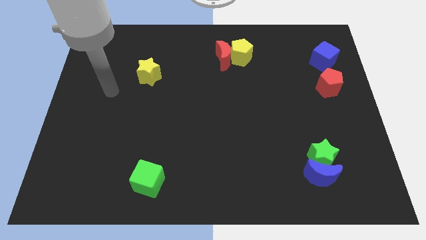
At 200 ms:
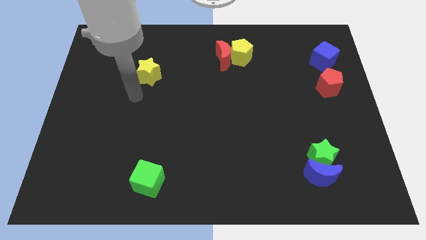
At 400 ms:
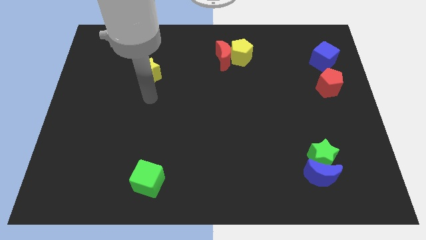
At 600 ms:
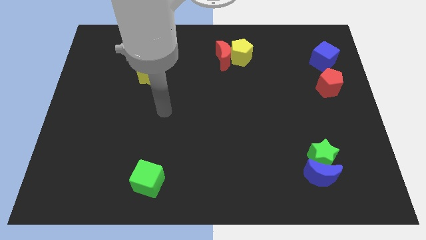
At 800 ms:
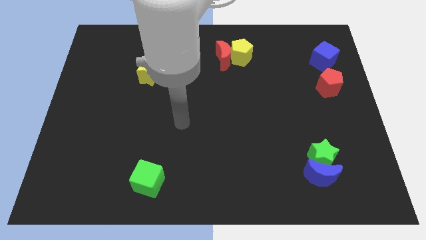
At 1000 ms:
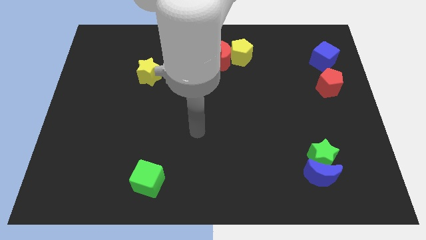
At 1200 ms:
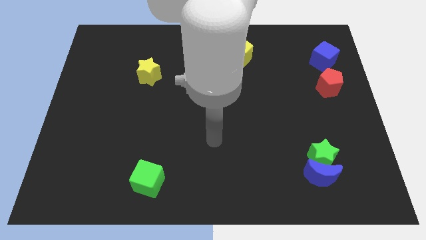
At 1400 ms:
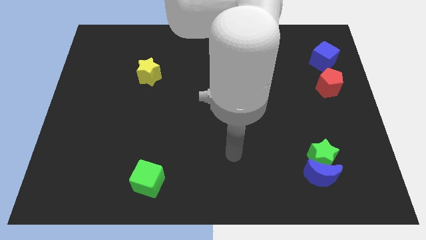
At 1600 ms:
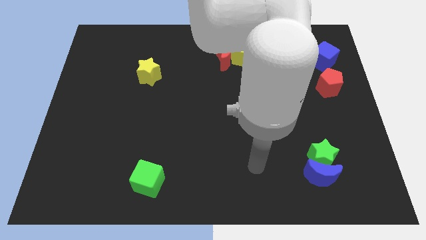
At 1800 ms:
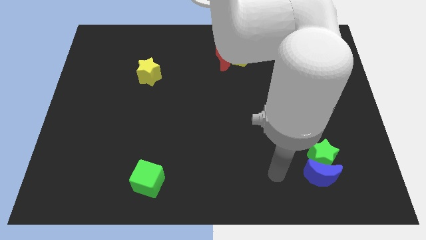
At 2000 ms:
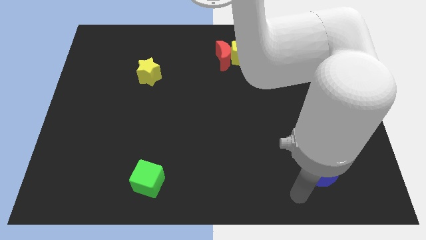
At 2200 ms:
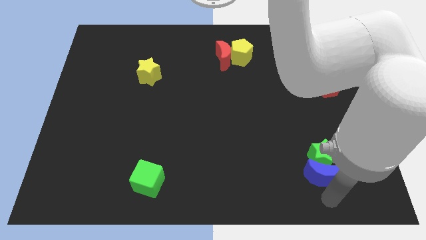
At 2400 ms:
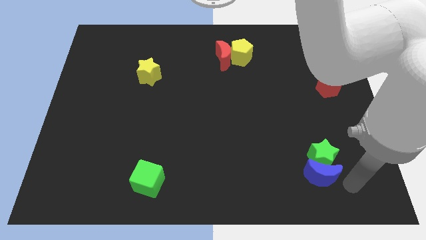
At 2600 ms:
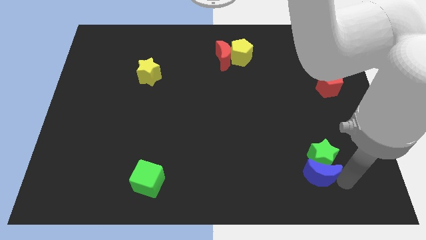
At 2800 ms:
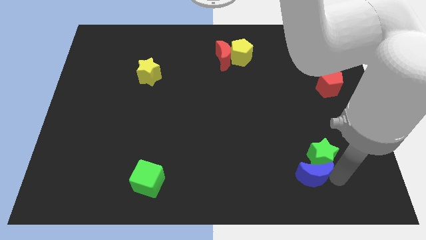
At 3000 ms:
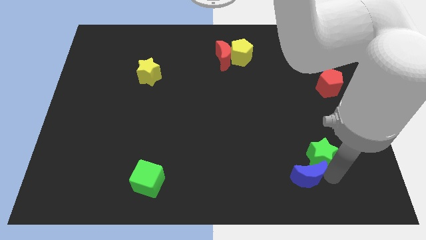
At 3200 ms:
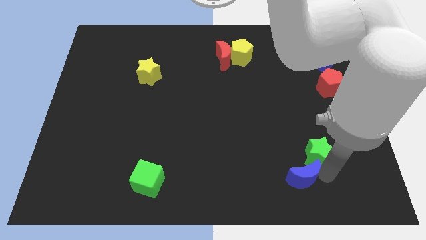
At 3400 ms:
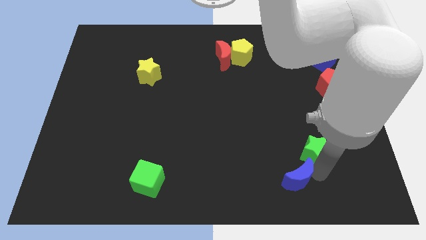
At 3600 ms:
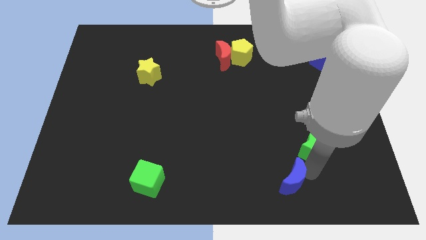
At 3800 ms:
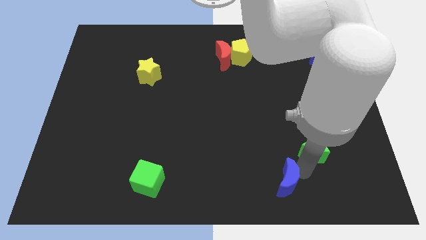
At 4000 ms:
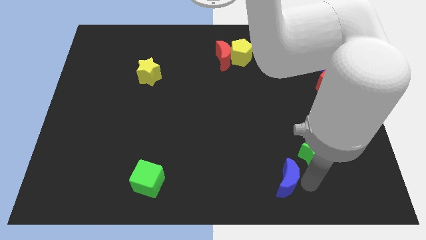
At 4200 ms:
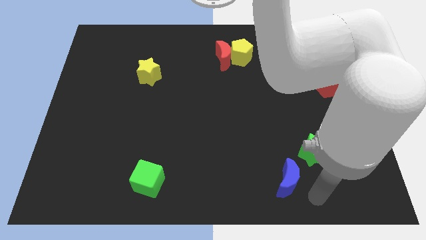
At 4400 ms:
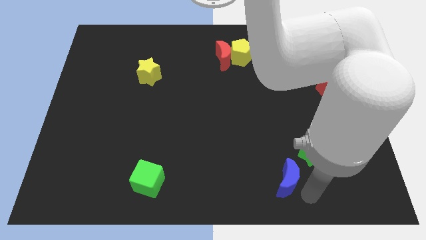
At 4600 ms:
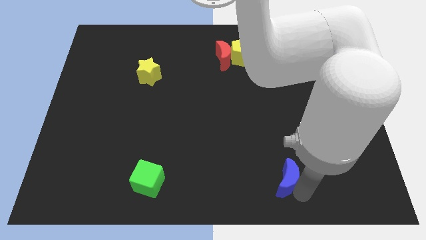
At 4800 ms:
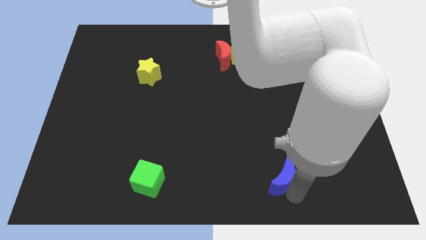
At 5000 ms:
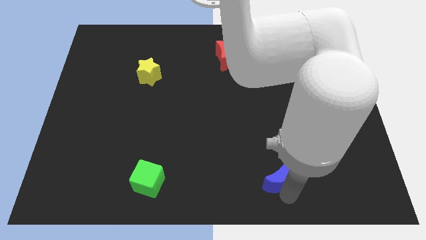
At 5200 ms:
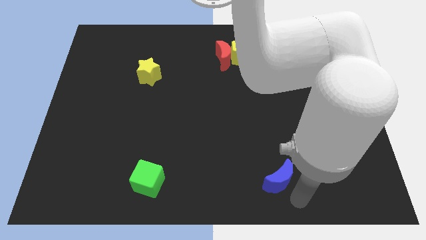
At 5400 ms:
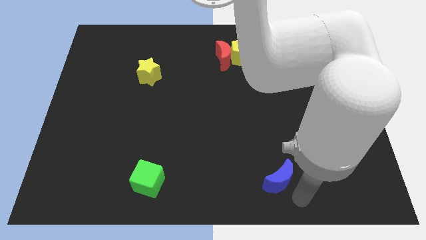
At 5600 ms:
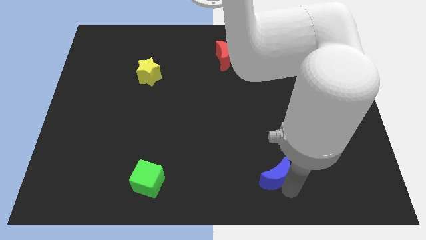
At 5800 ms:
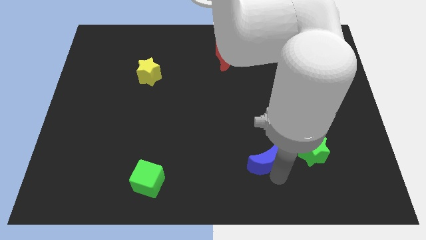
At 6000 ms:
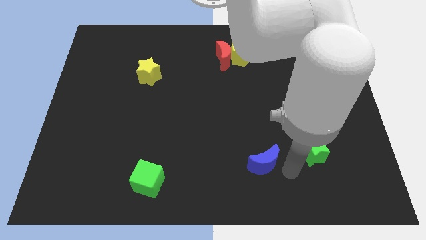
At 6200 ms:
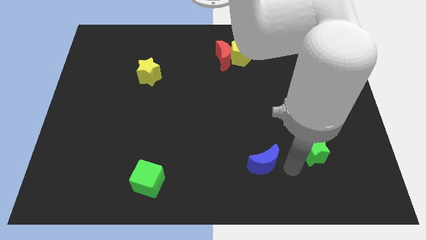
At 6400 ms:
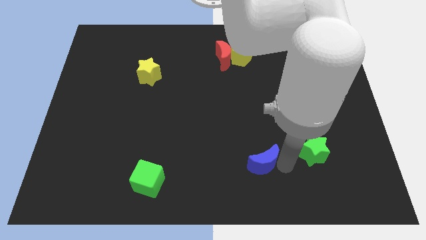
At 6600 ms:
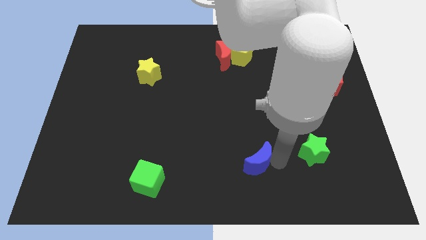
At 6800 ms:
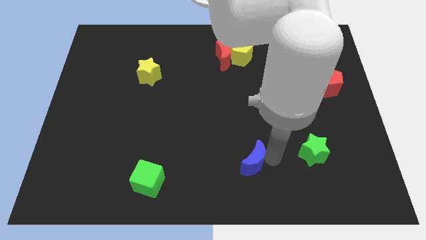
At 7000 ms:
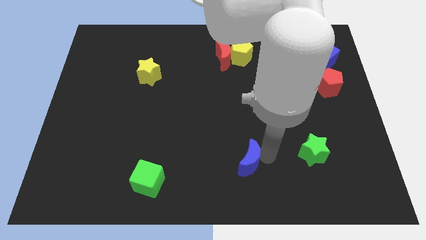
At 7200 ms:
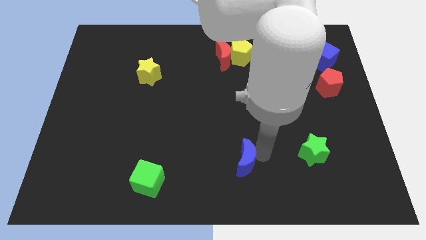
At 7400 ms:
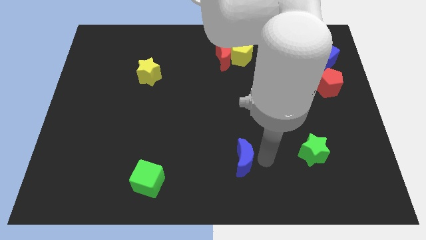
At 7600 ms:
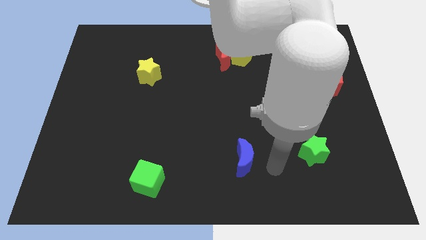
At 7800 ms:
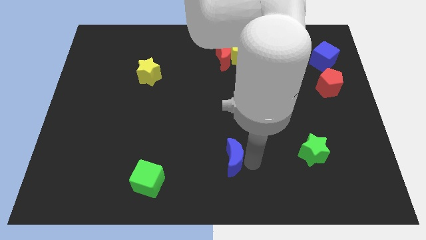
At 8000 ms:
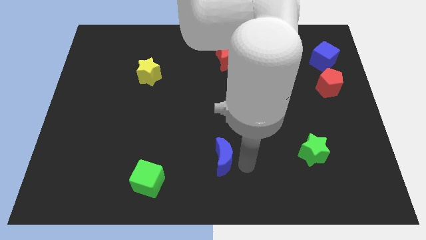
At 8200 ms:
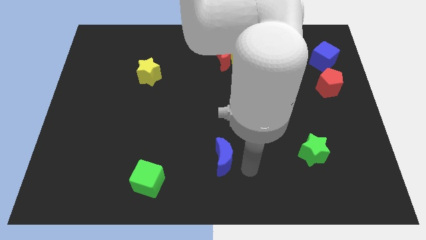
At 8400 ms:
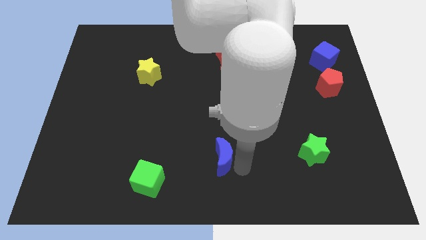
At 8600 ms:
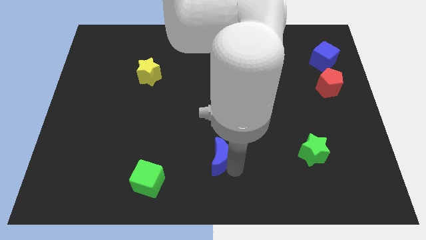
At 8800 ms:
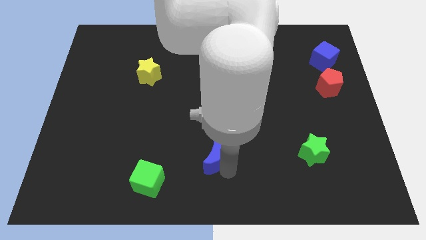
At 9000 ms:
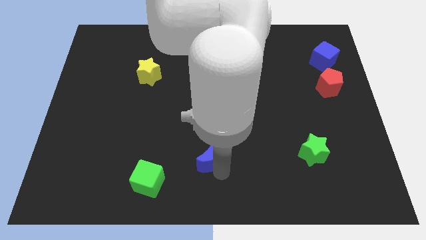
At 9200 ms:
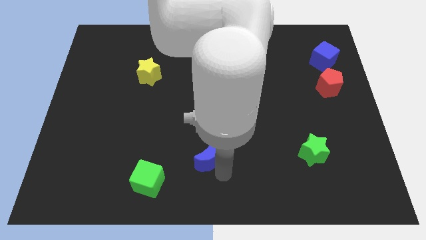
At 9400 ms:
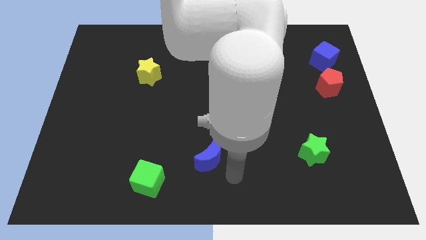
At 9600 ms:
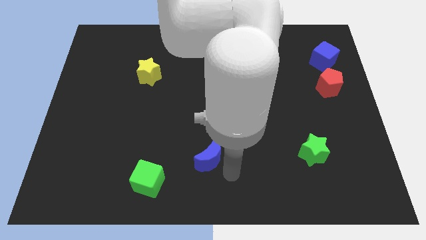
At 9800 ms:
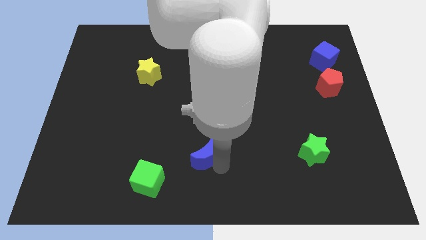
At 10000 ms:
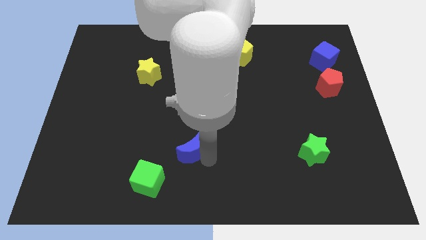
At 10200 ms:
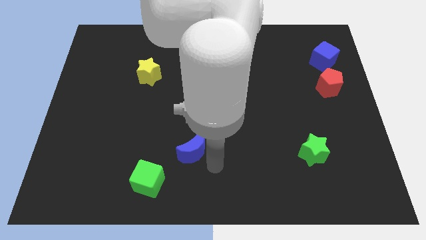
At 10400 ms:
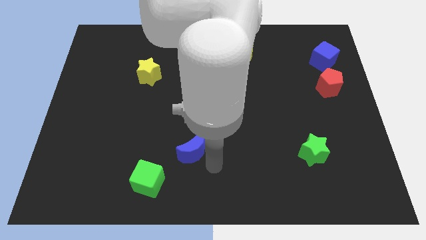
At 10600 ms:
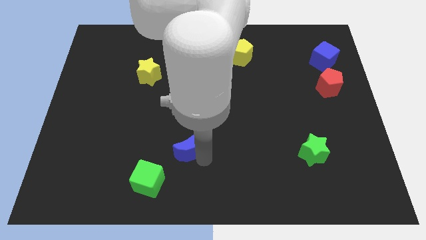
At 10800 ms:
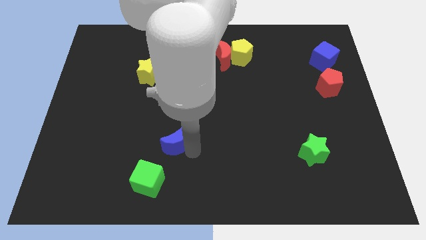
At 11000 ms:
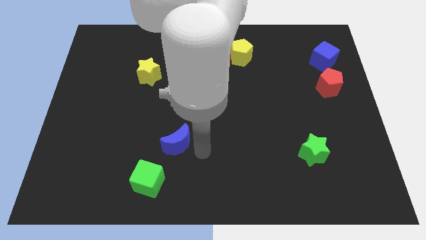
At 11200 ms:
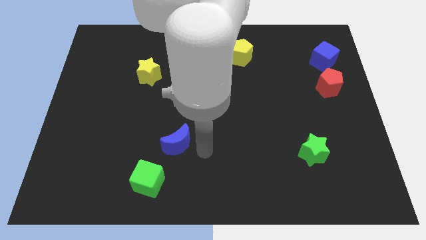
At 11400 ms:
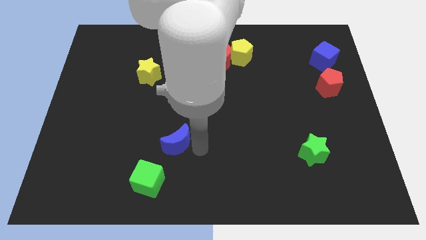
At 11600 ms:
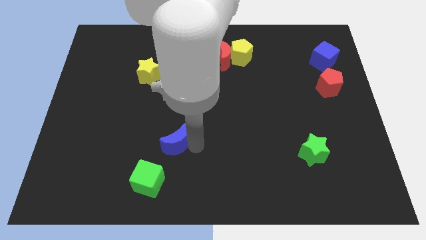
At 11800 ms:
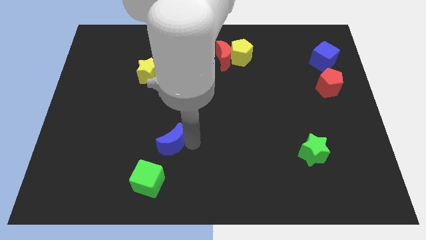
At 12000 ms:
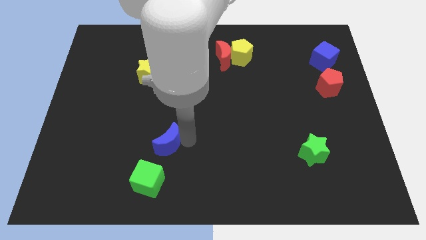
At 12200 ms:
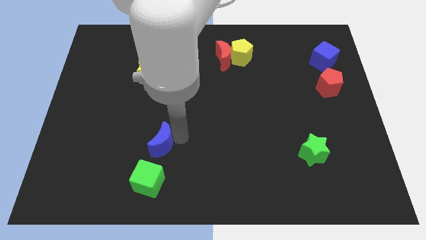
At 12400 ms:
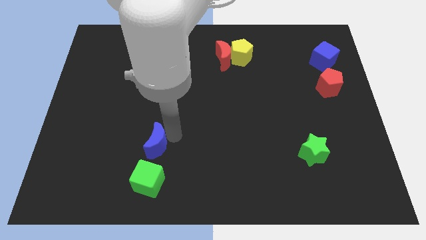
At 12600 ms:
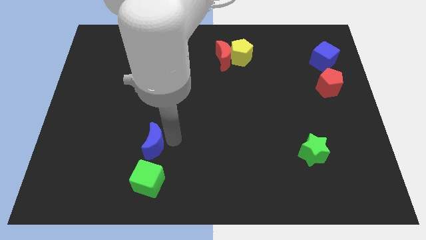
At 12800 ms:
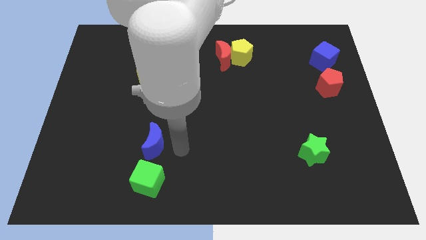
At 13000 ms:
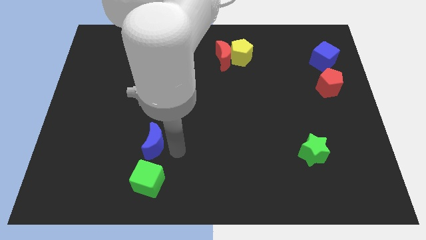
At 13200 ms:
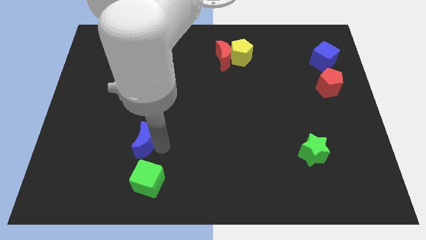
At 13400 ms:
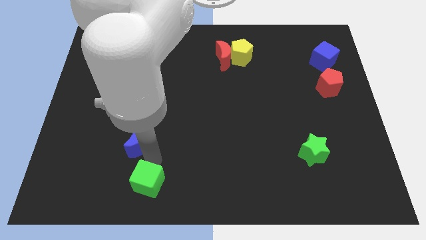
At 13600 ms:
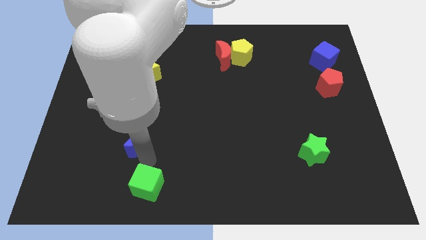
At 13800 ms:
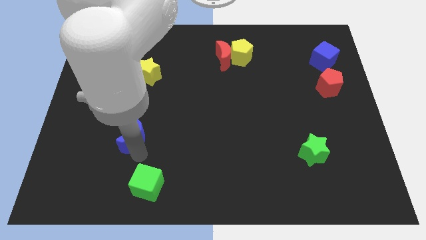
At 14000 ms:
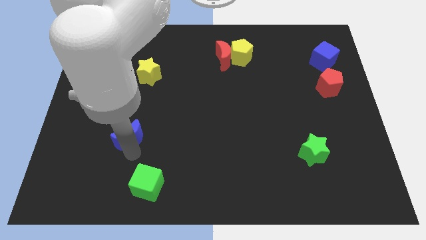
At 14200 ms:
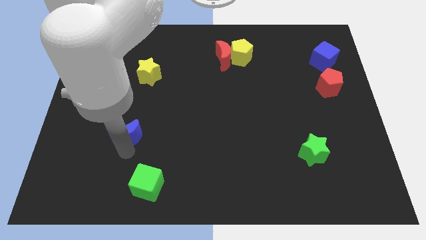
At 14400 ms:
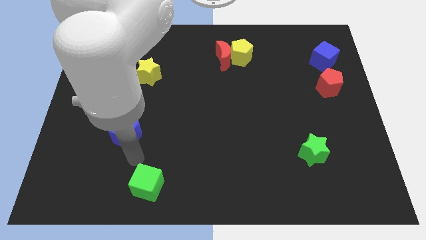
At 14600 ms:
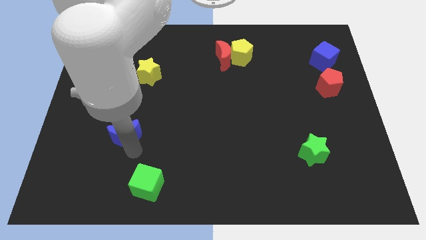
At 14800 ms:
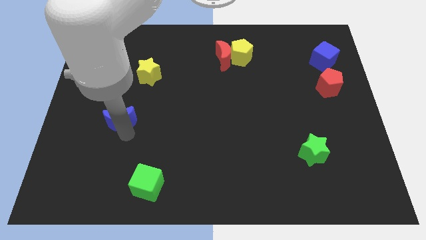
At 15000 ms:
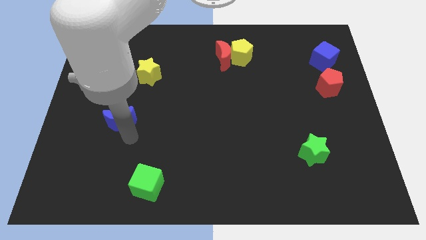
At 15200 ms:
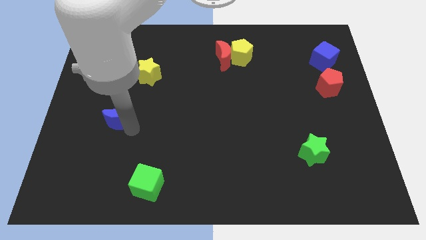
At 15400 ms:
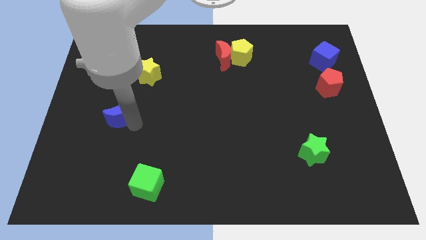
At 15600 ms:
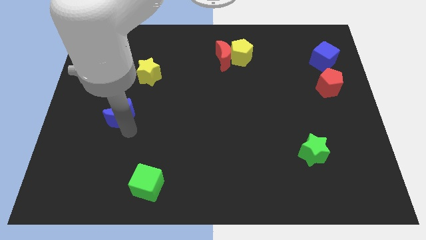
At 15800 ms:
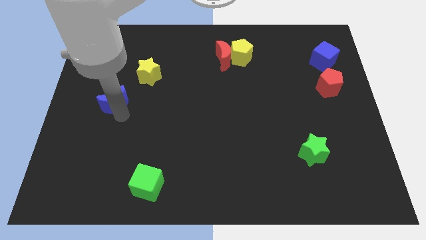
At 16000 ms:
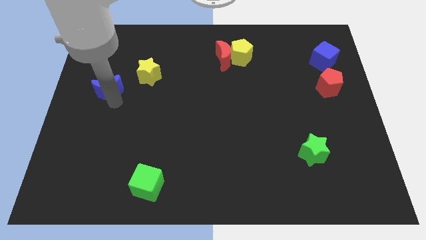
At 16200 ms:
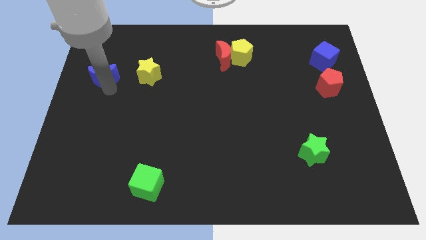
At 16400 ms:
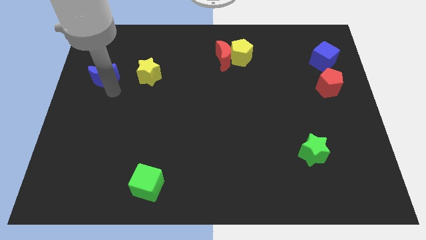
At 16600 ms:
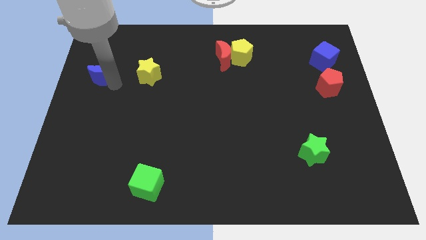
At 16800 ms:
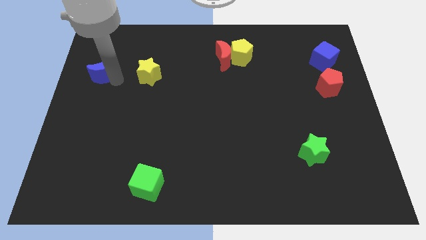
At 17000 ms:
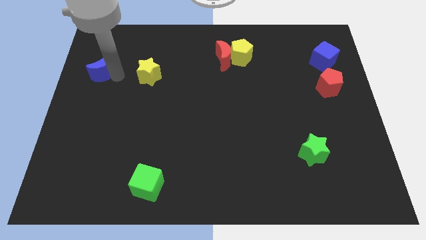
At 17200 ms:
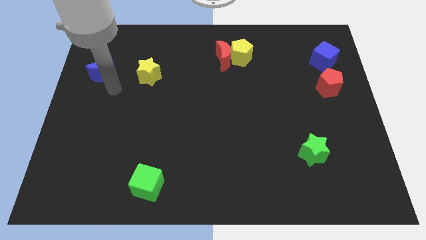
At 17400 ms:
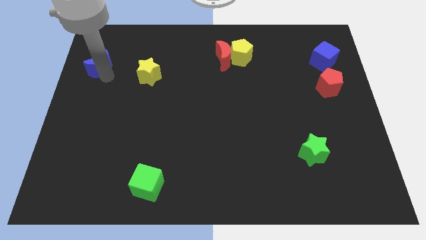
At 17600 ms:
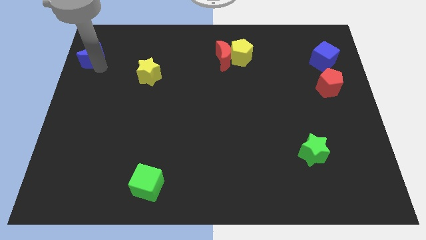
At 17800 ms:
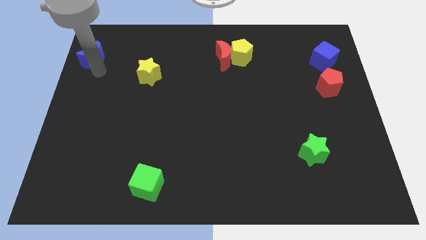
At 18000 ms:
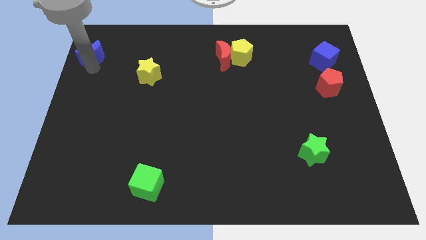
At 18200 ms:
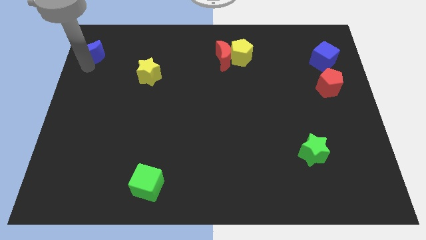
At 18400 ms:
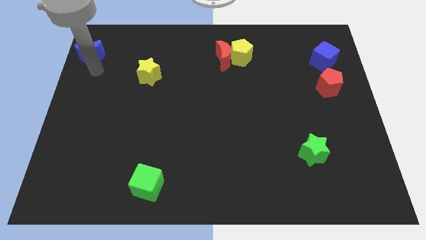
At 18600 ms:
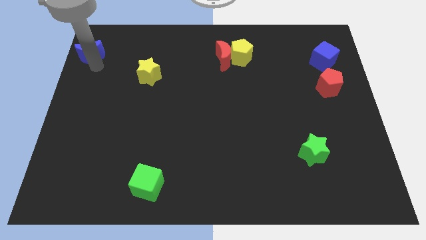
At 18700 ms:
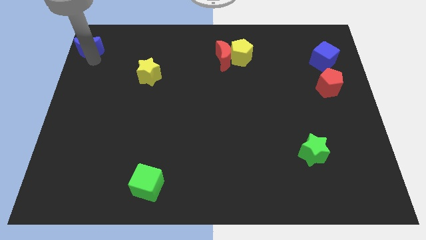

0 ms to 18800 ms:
slide the blue moon to the upper left corner
